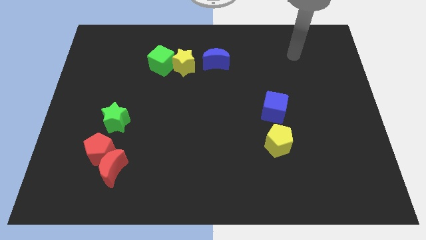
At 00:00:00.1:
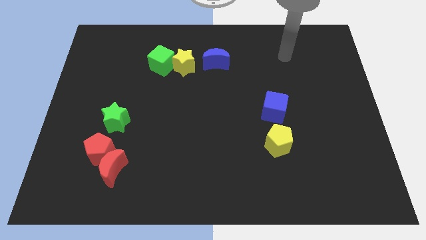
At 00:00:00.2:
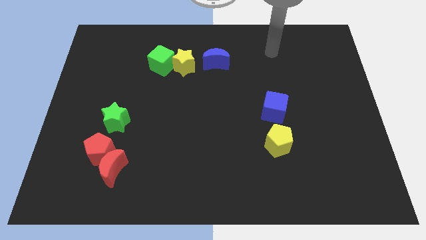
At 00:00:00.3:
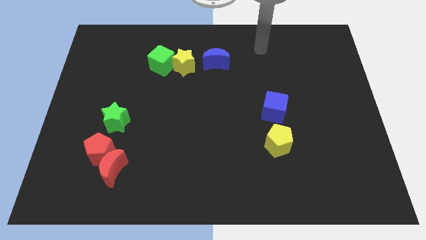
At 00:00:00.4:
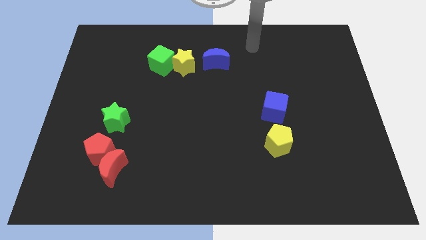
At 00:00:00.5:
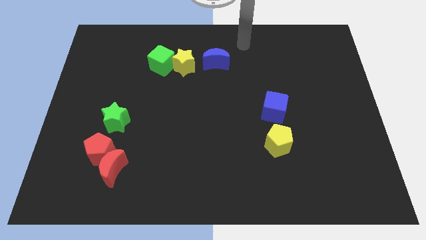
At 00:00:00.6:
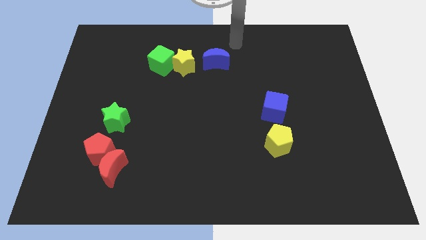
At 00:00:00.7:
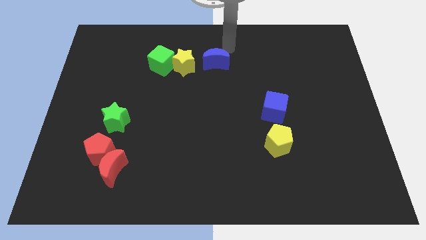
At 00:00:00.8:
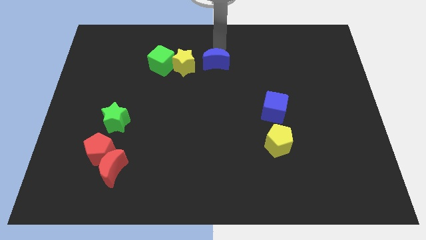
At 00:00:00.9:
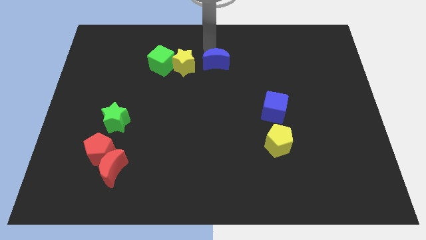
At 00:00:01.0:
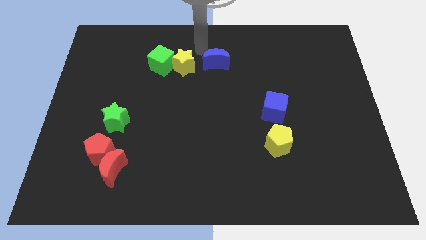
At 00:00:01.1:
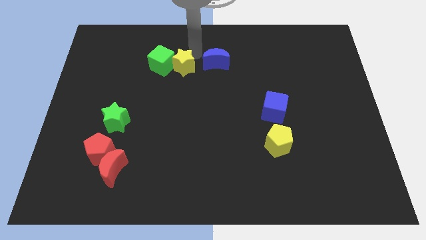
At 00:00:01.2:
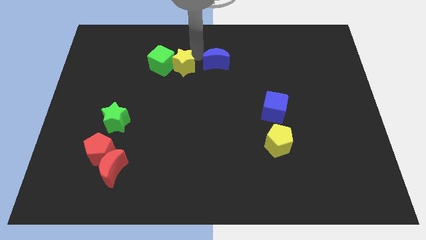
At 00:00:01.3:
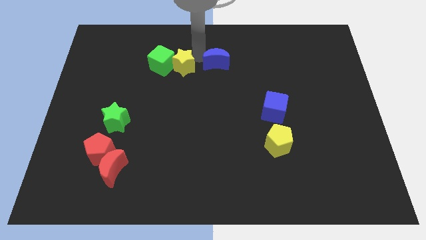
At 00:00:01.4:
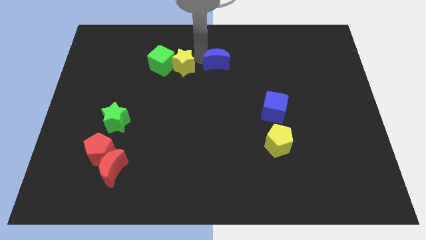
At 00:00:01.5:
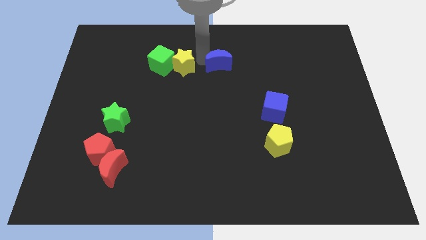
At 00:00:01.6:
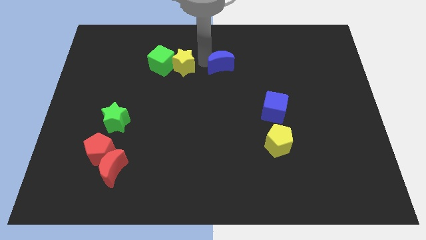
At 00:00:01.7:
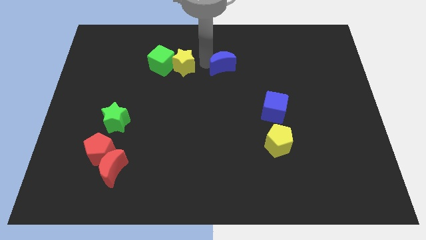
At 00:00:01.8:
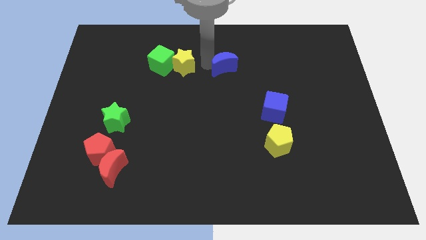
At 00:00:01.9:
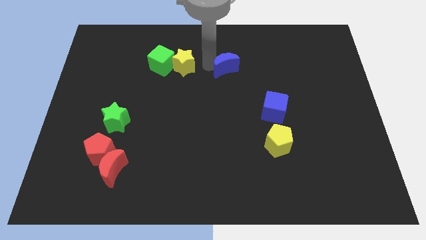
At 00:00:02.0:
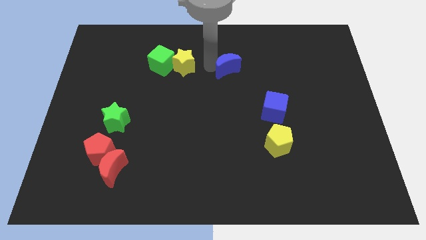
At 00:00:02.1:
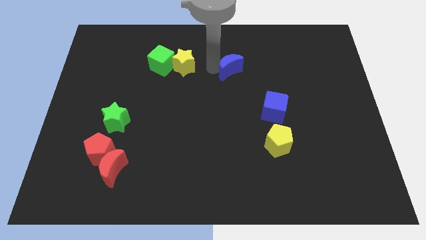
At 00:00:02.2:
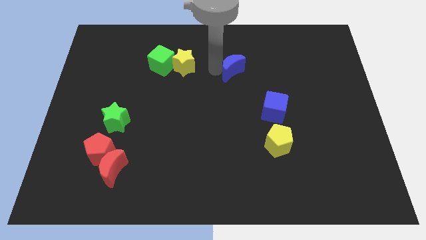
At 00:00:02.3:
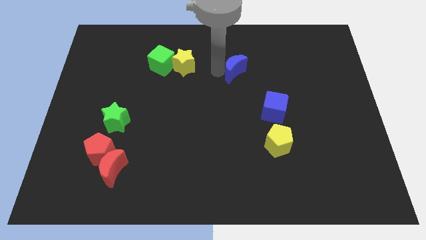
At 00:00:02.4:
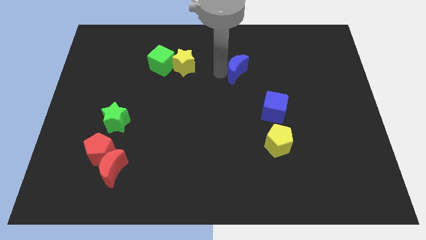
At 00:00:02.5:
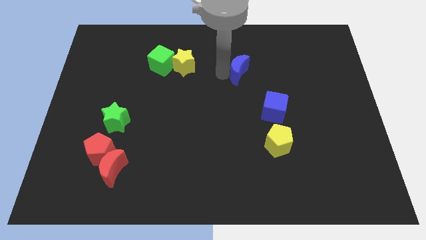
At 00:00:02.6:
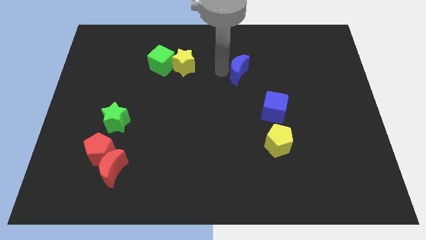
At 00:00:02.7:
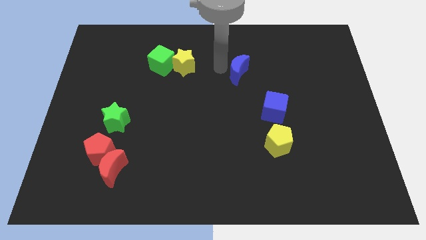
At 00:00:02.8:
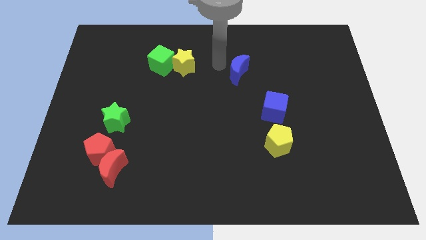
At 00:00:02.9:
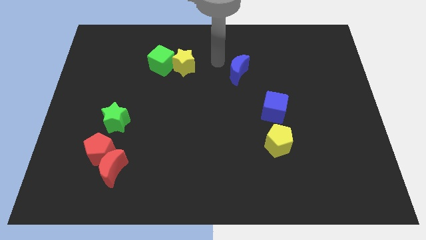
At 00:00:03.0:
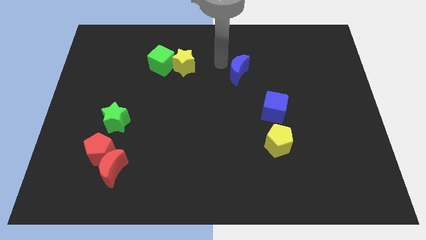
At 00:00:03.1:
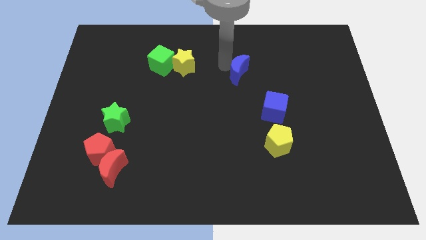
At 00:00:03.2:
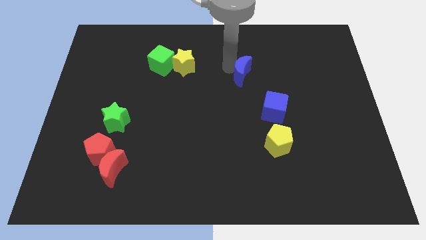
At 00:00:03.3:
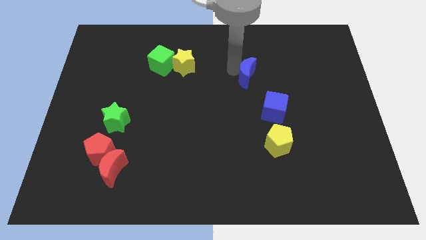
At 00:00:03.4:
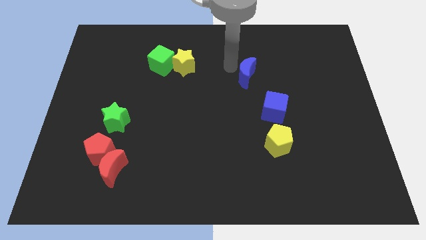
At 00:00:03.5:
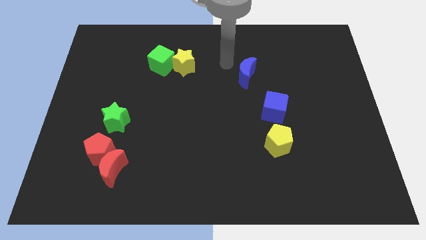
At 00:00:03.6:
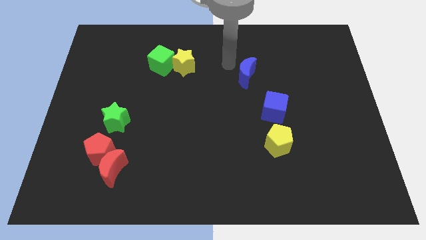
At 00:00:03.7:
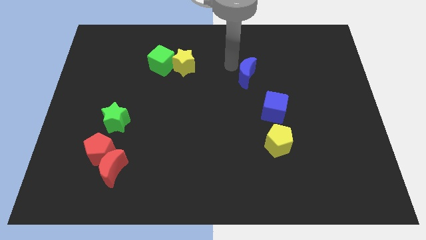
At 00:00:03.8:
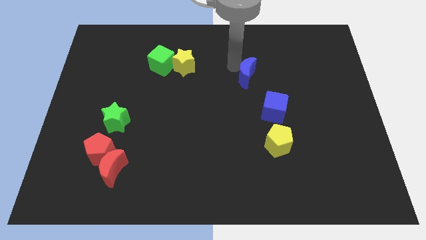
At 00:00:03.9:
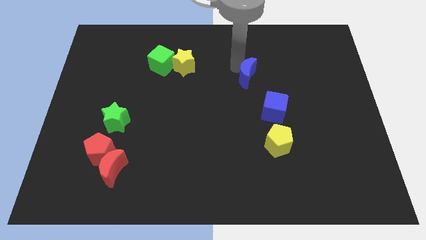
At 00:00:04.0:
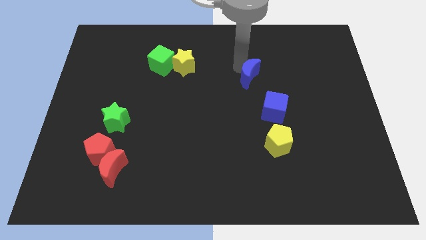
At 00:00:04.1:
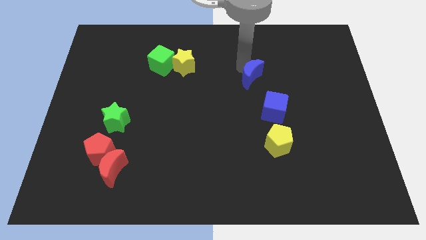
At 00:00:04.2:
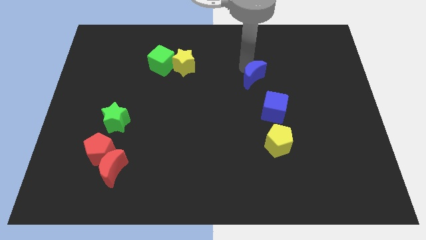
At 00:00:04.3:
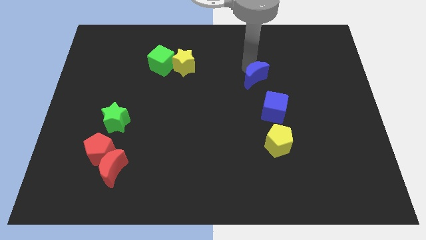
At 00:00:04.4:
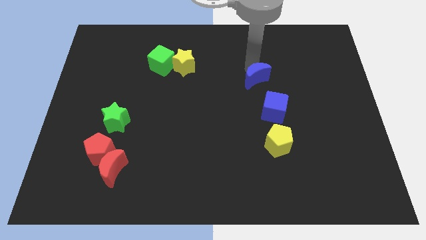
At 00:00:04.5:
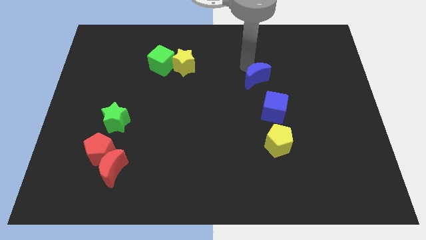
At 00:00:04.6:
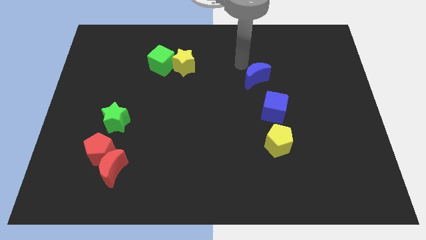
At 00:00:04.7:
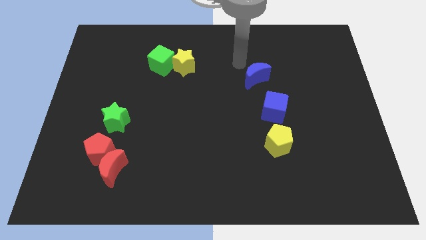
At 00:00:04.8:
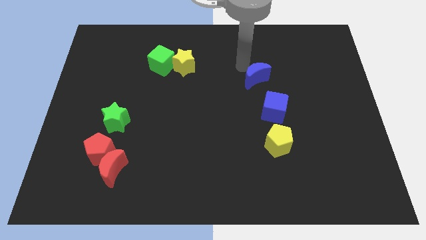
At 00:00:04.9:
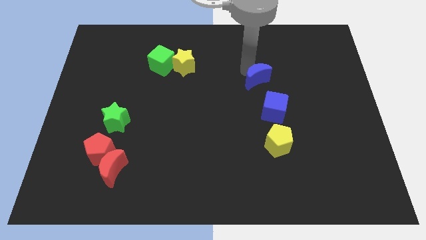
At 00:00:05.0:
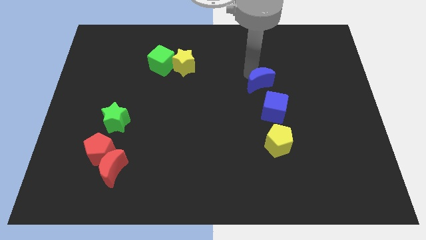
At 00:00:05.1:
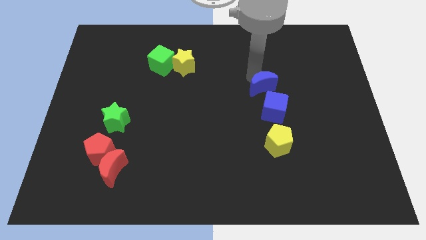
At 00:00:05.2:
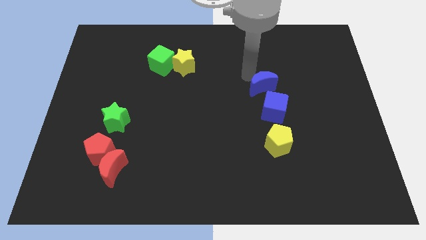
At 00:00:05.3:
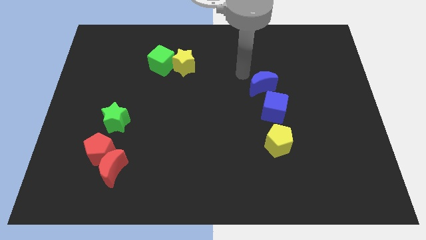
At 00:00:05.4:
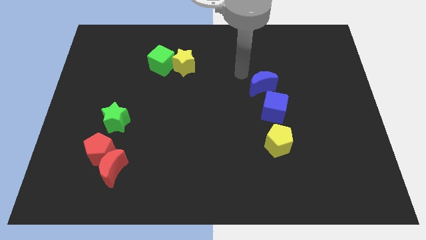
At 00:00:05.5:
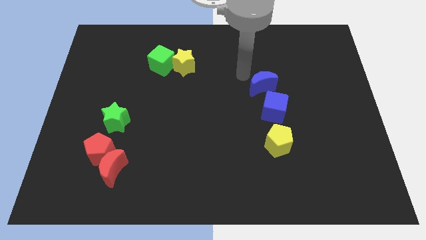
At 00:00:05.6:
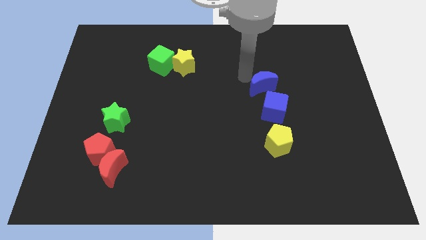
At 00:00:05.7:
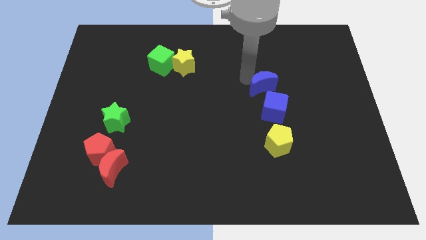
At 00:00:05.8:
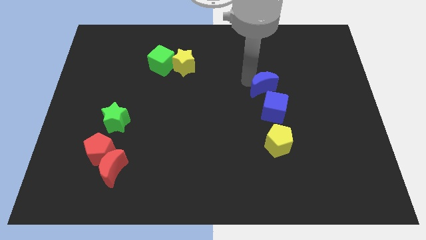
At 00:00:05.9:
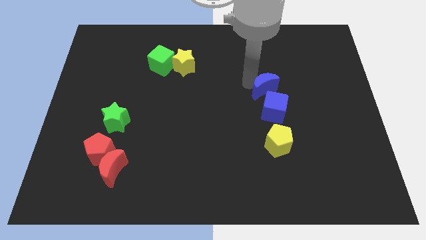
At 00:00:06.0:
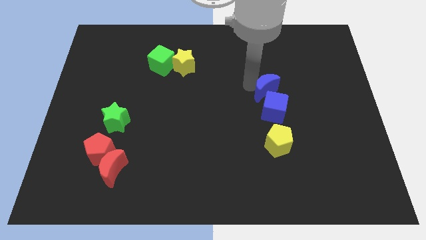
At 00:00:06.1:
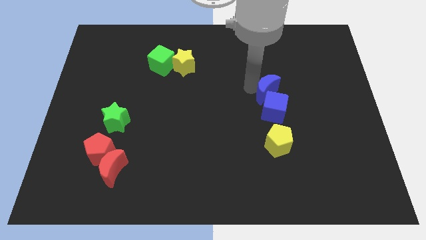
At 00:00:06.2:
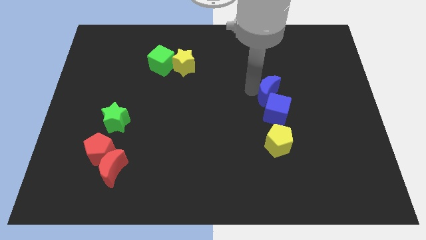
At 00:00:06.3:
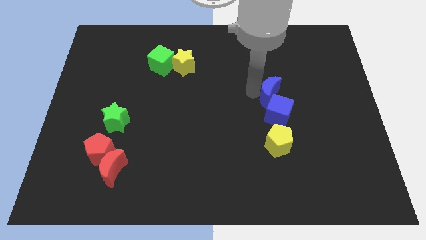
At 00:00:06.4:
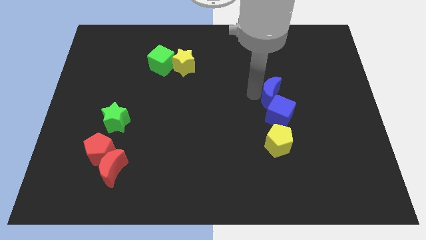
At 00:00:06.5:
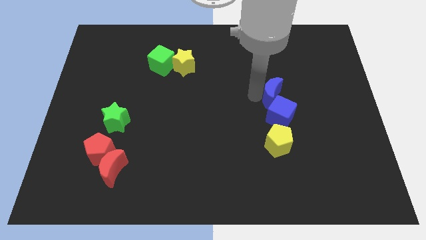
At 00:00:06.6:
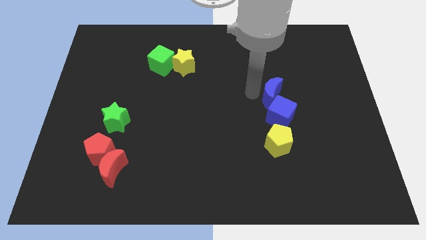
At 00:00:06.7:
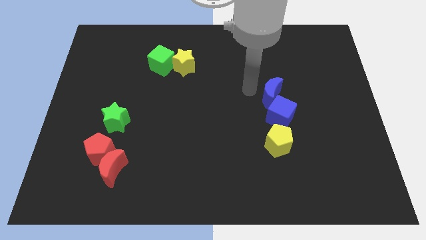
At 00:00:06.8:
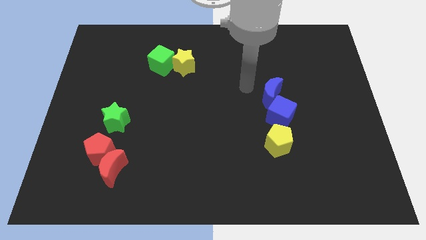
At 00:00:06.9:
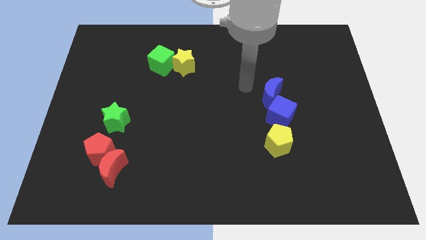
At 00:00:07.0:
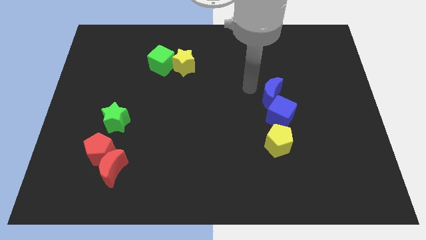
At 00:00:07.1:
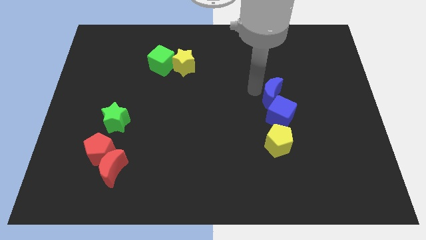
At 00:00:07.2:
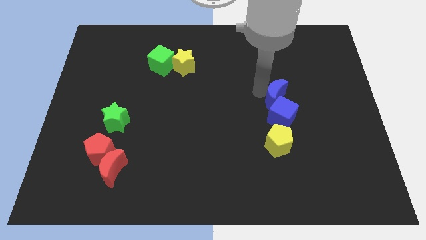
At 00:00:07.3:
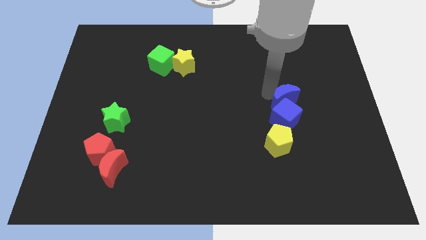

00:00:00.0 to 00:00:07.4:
push the blue moon down and right

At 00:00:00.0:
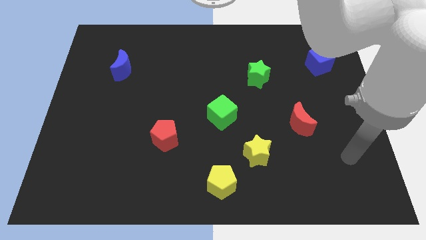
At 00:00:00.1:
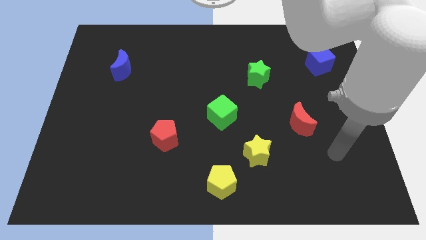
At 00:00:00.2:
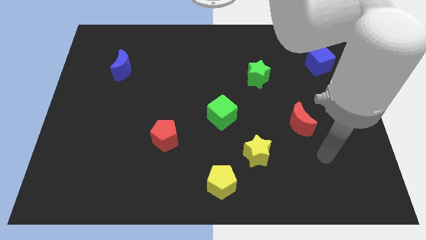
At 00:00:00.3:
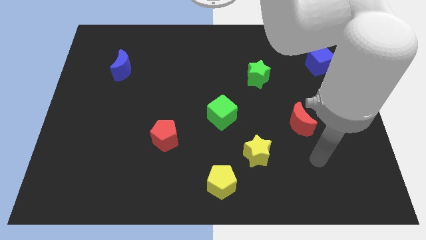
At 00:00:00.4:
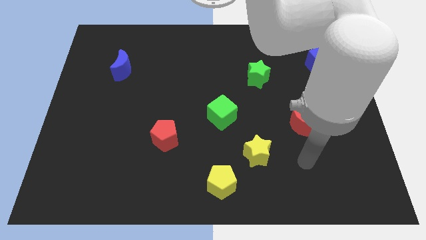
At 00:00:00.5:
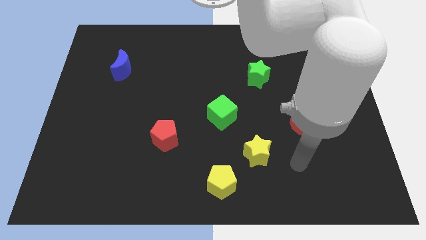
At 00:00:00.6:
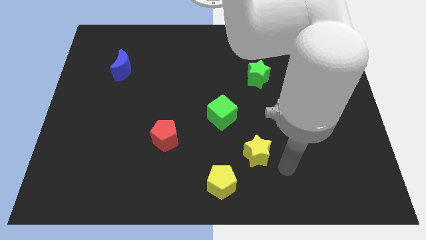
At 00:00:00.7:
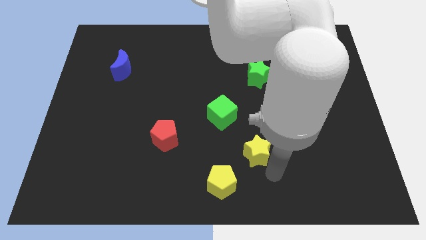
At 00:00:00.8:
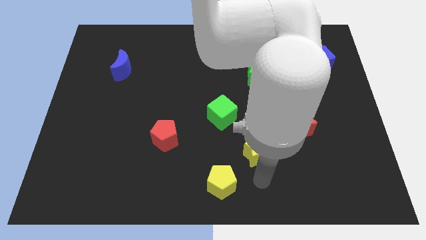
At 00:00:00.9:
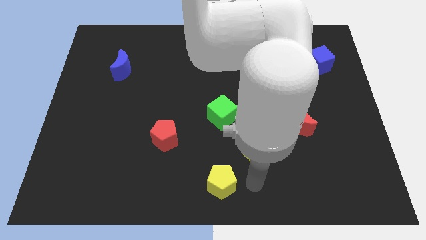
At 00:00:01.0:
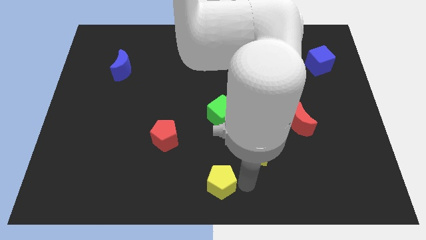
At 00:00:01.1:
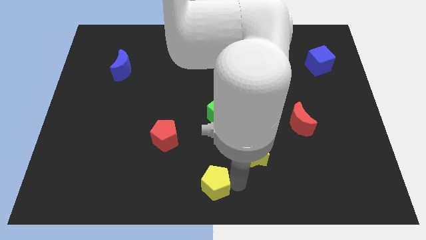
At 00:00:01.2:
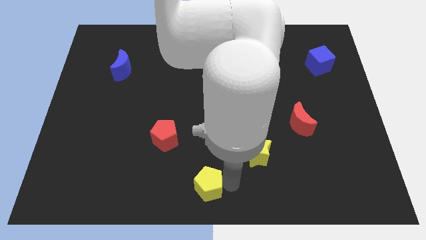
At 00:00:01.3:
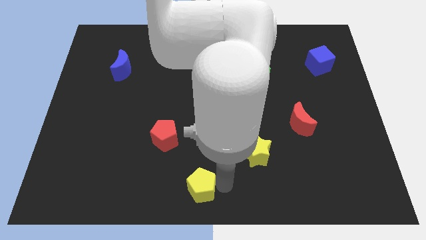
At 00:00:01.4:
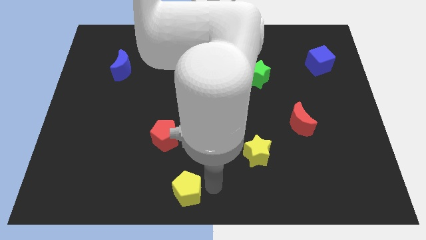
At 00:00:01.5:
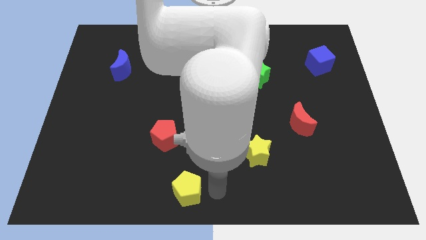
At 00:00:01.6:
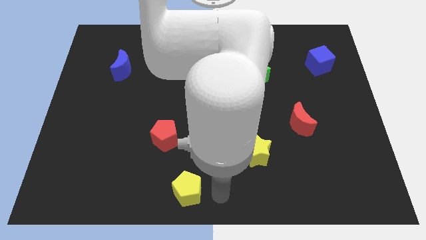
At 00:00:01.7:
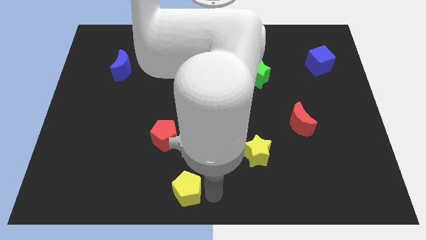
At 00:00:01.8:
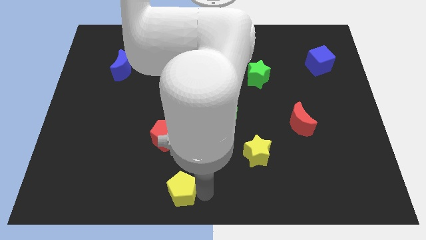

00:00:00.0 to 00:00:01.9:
slightly push the yellow pentagon to the left
